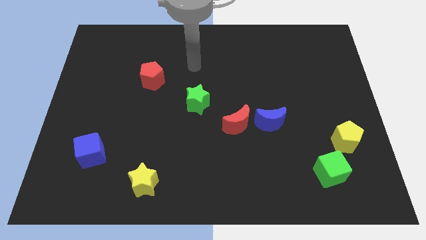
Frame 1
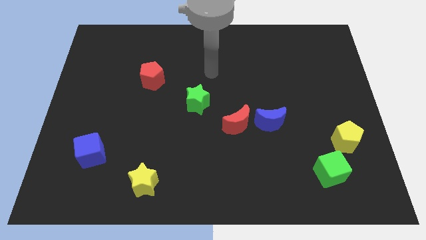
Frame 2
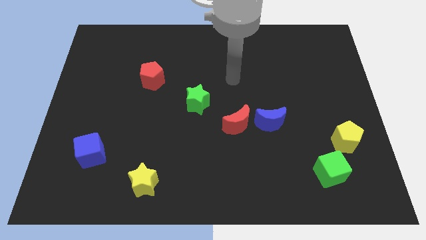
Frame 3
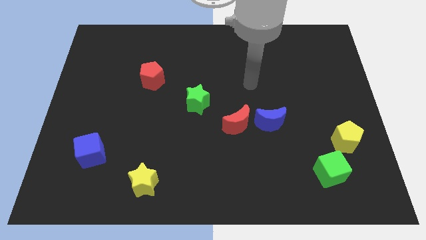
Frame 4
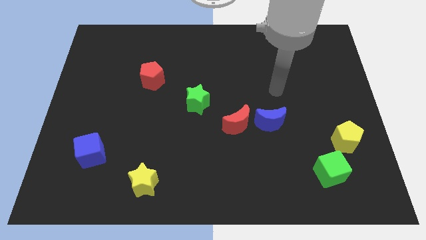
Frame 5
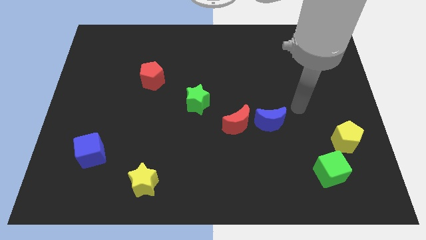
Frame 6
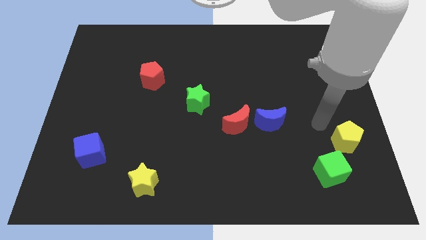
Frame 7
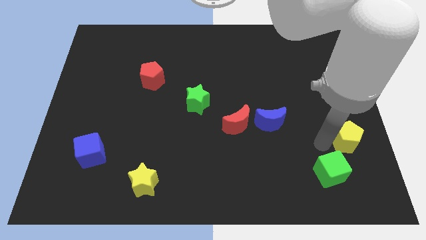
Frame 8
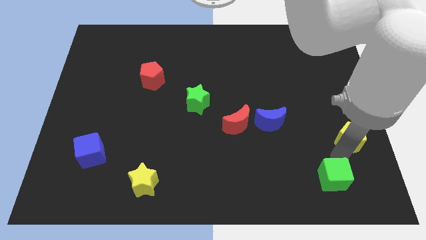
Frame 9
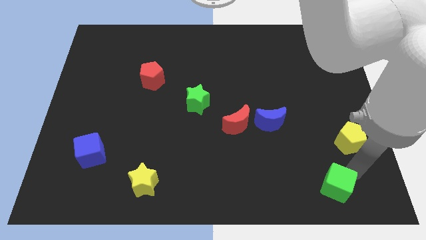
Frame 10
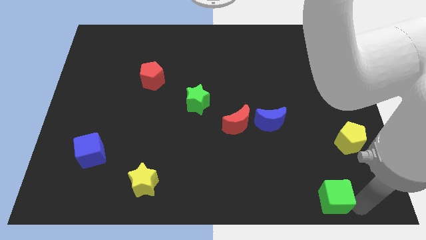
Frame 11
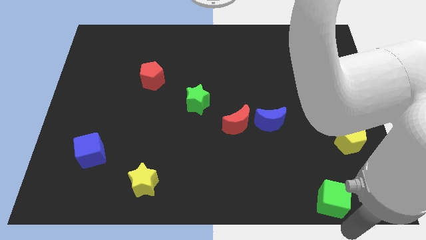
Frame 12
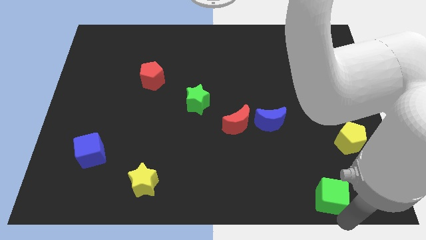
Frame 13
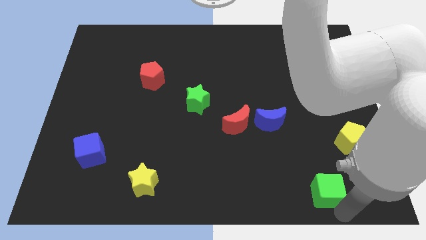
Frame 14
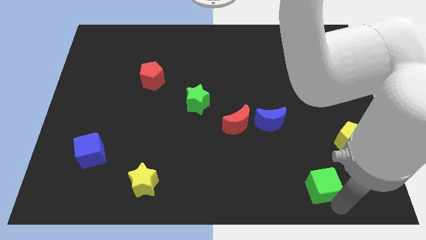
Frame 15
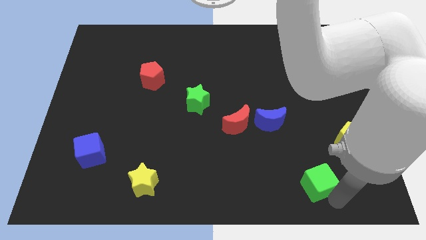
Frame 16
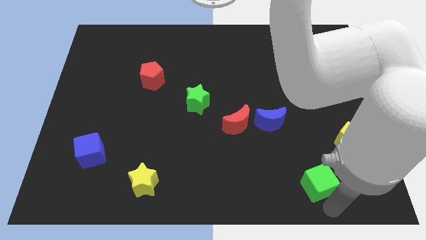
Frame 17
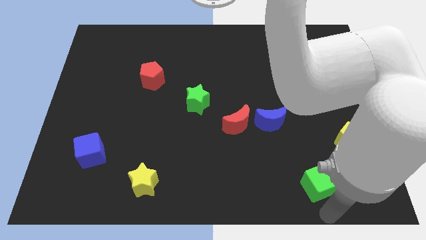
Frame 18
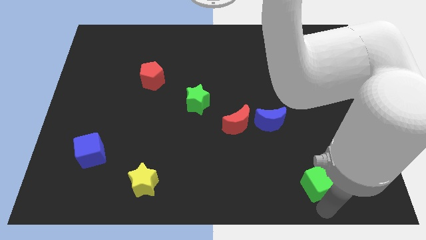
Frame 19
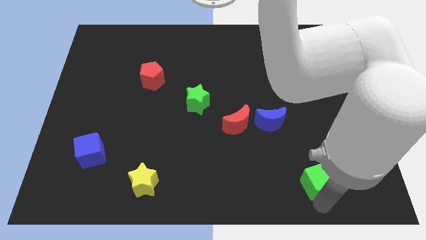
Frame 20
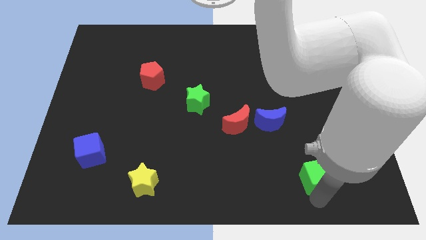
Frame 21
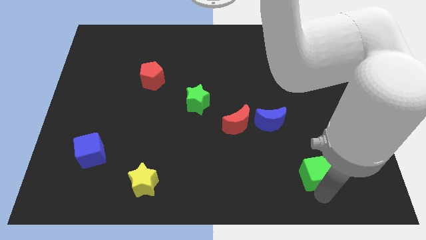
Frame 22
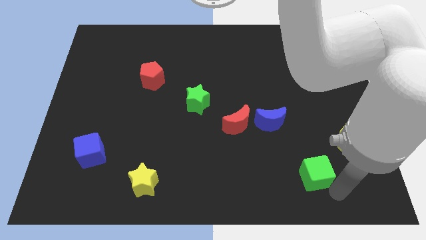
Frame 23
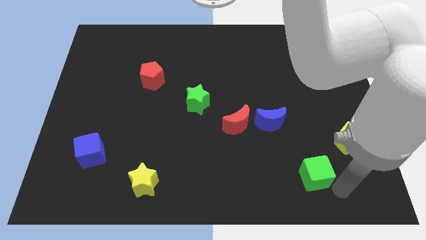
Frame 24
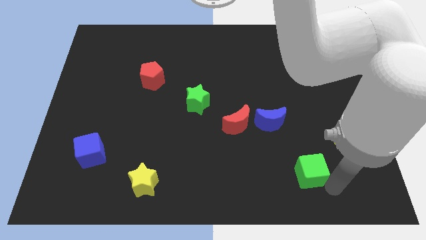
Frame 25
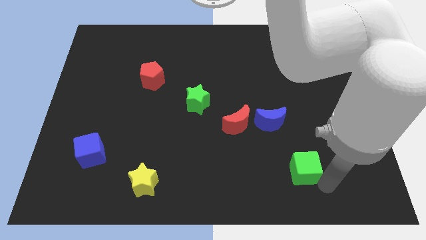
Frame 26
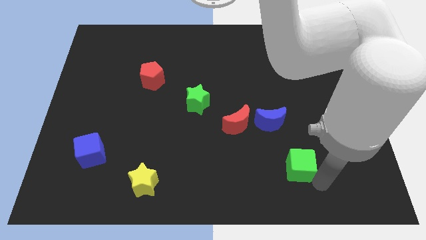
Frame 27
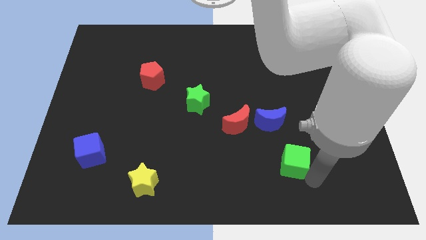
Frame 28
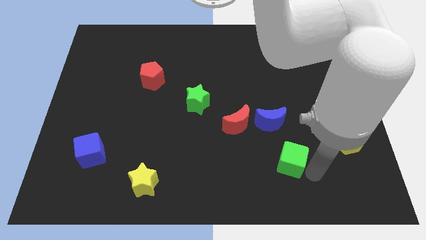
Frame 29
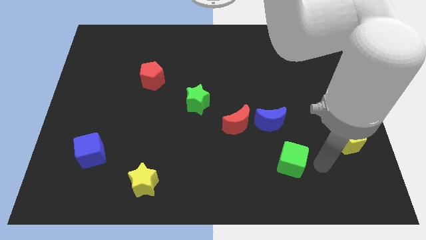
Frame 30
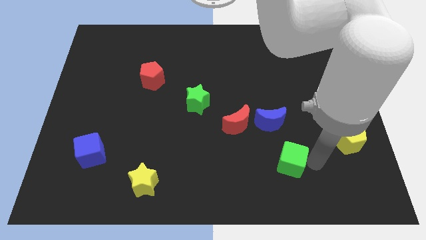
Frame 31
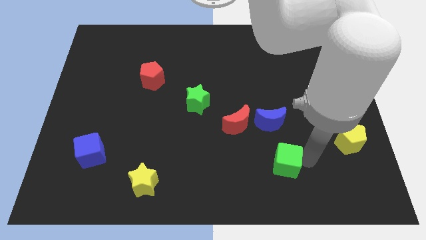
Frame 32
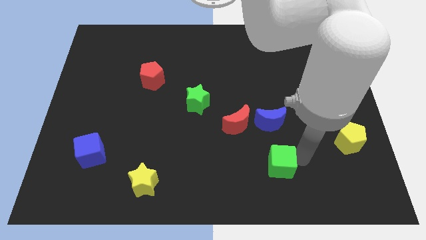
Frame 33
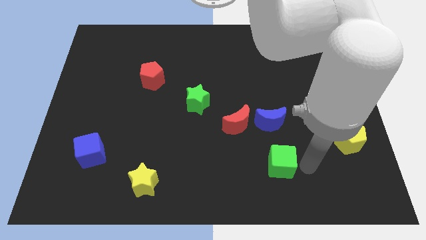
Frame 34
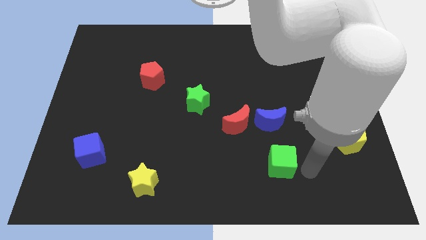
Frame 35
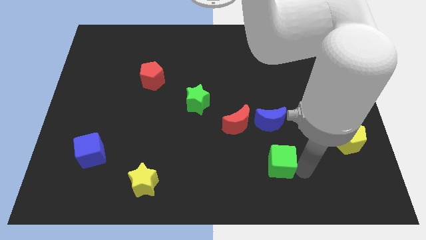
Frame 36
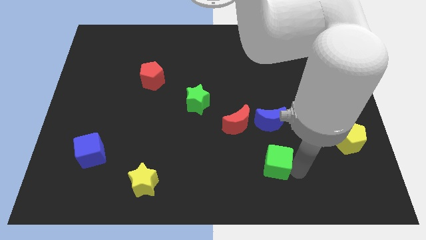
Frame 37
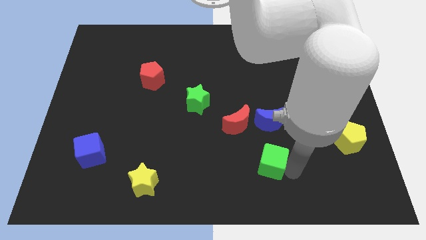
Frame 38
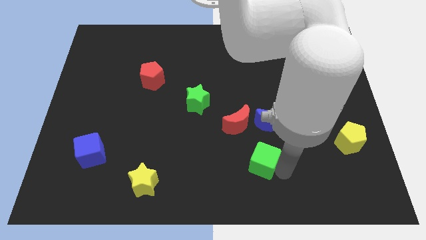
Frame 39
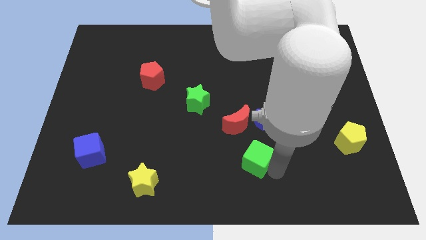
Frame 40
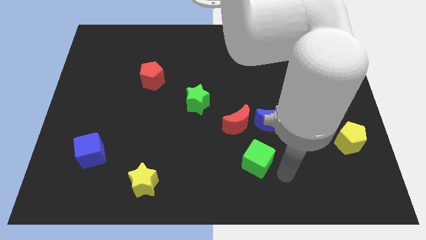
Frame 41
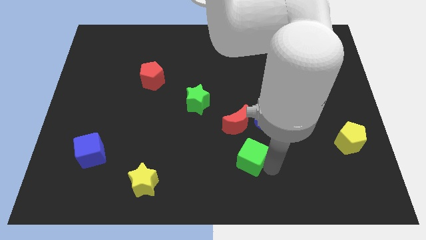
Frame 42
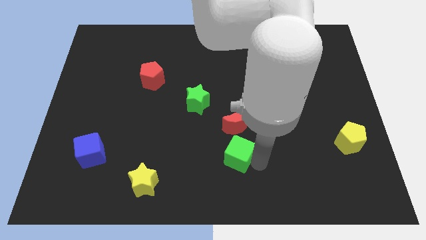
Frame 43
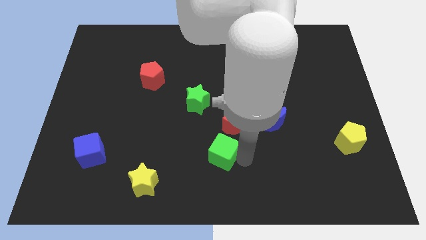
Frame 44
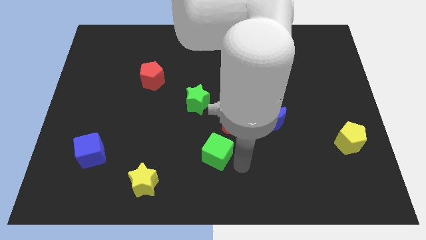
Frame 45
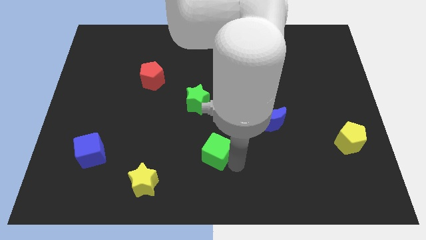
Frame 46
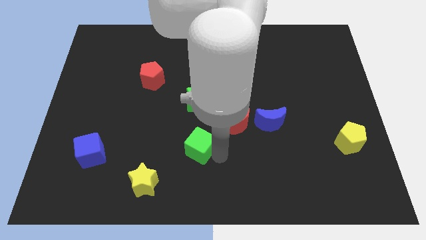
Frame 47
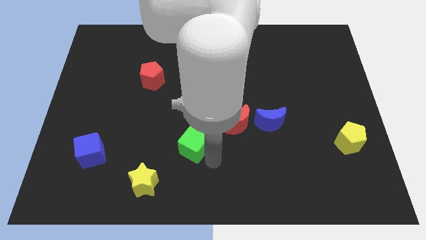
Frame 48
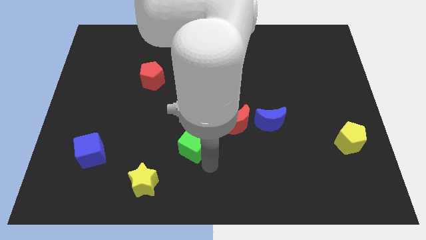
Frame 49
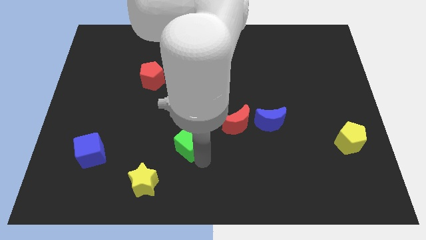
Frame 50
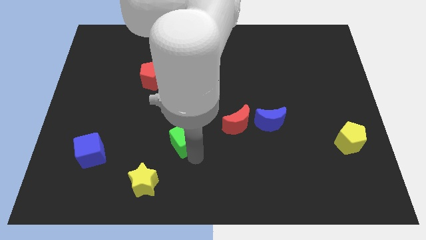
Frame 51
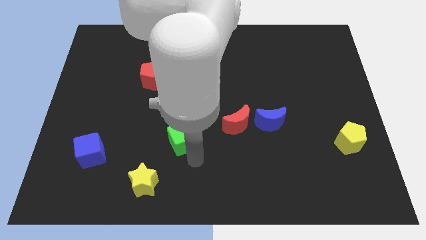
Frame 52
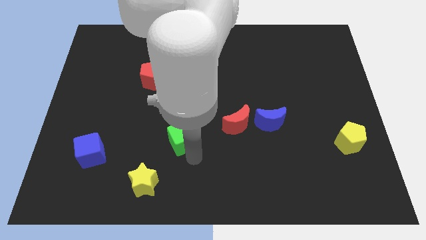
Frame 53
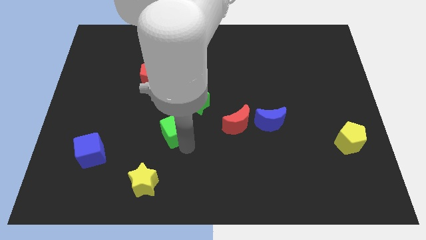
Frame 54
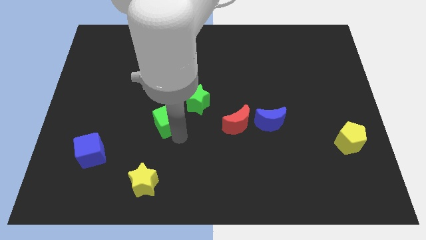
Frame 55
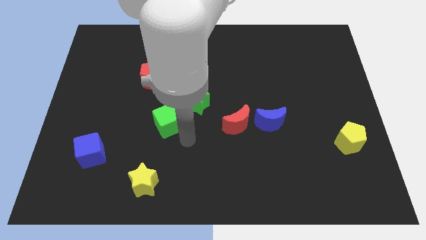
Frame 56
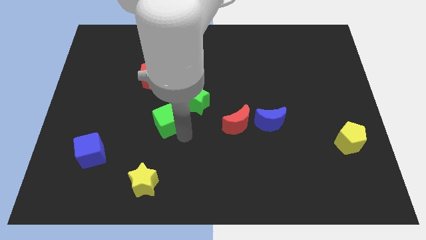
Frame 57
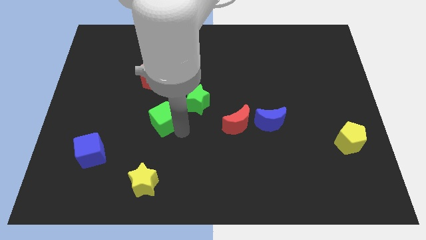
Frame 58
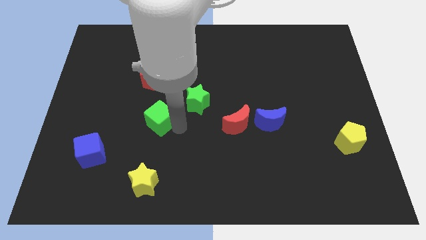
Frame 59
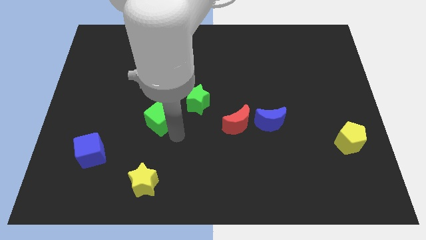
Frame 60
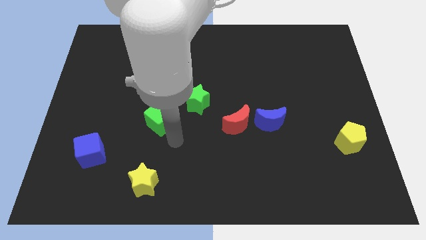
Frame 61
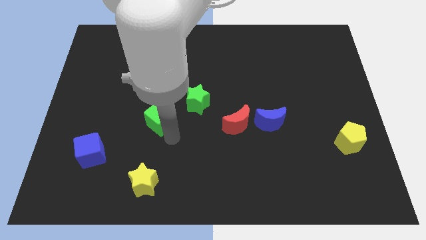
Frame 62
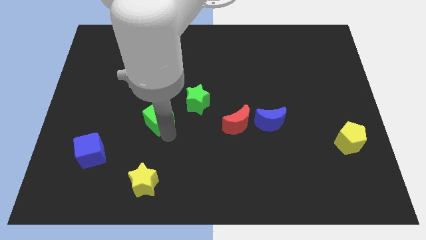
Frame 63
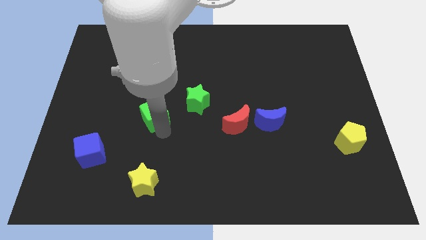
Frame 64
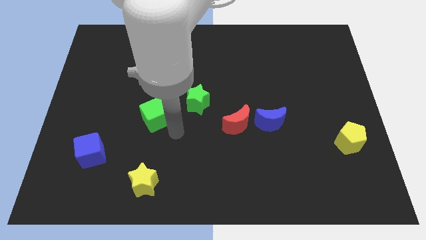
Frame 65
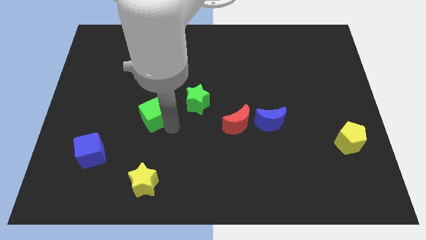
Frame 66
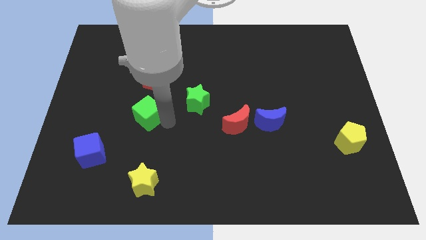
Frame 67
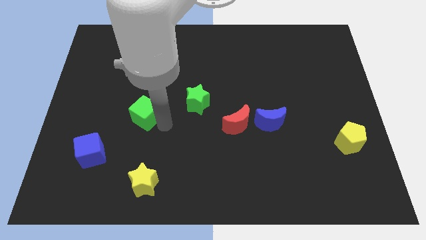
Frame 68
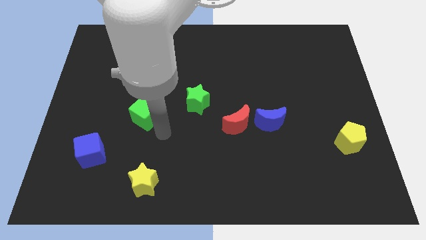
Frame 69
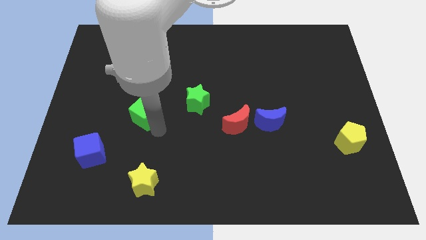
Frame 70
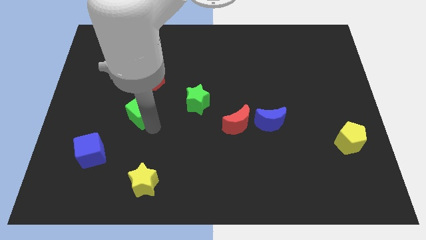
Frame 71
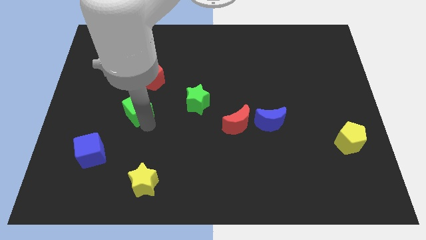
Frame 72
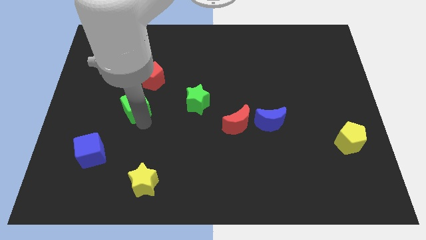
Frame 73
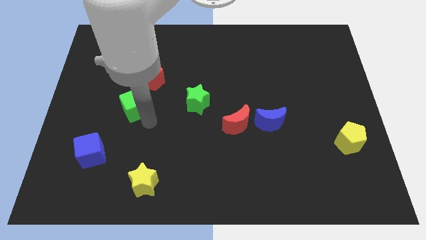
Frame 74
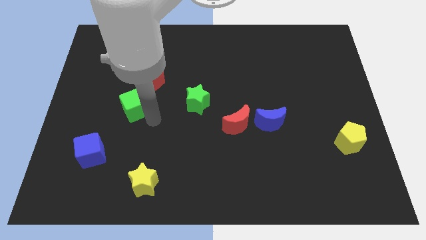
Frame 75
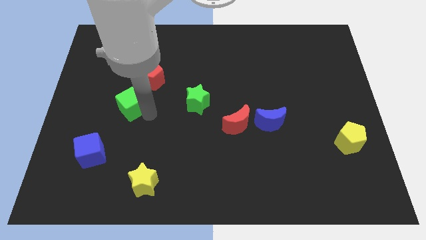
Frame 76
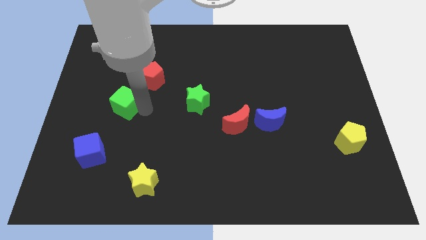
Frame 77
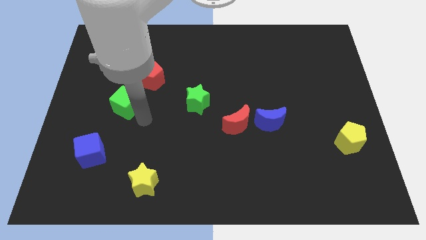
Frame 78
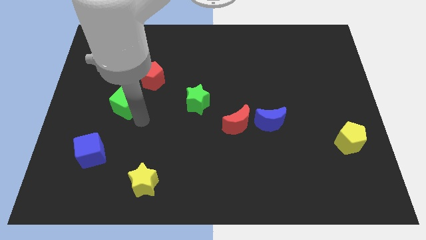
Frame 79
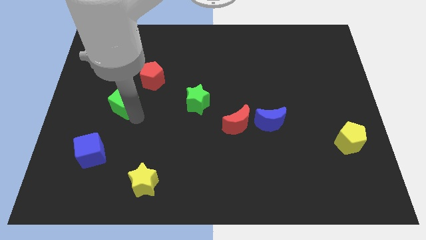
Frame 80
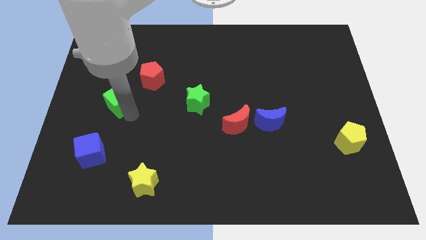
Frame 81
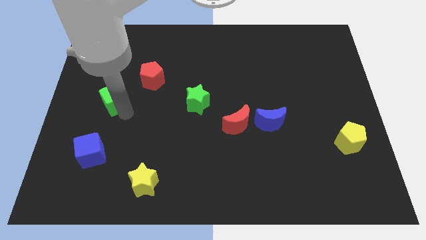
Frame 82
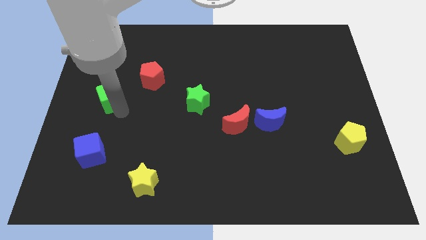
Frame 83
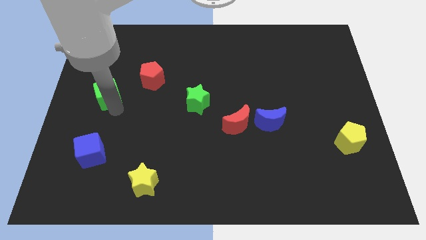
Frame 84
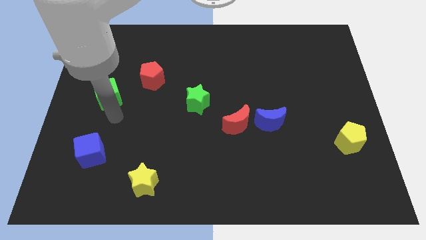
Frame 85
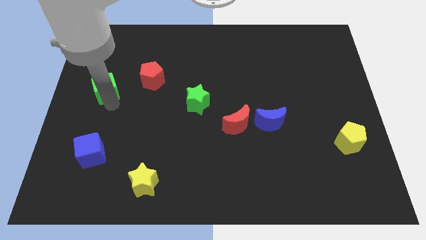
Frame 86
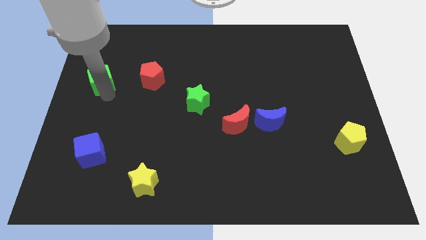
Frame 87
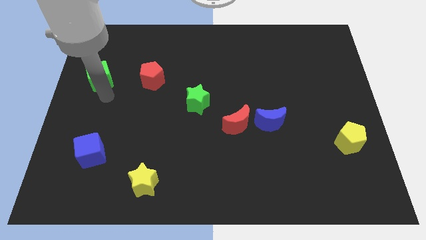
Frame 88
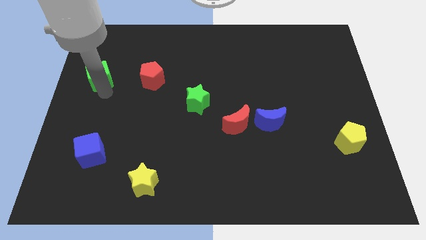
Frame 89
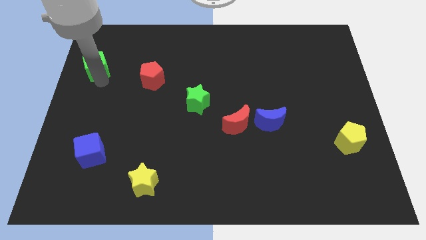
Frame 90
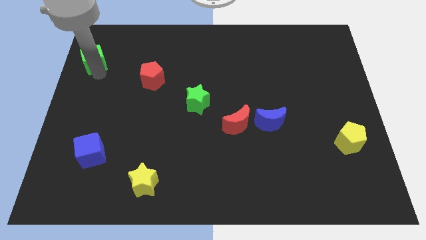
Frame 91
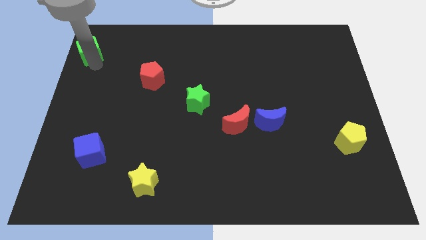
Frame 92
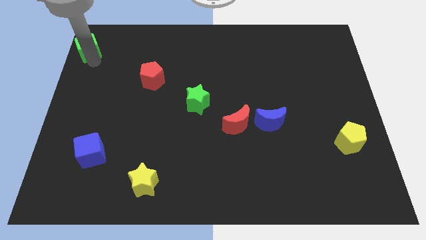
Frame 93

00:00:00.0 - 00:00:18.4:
push the green cube to the top left of the board
